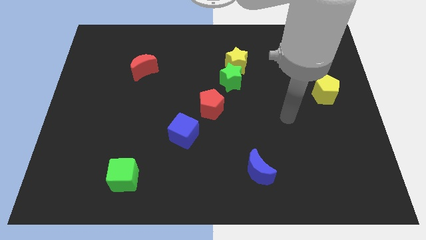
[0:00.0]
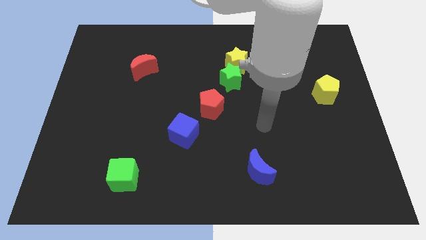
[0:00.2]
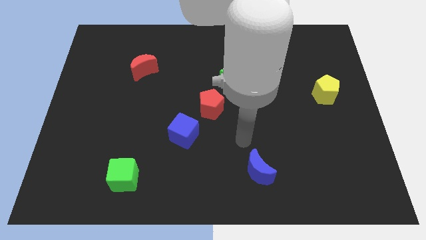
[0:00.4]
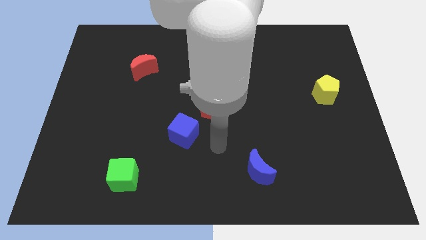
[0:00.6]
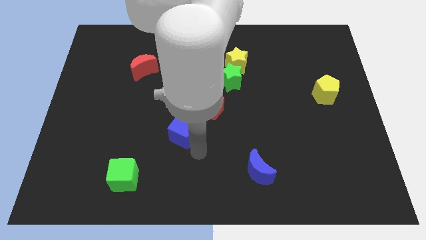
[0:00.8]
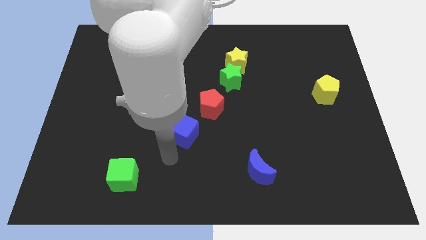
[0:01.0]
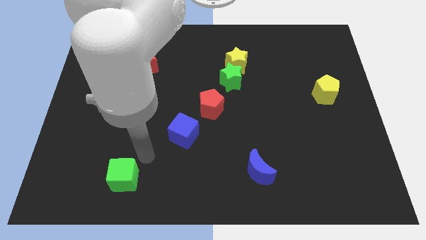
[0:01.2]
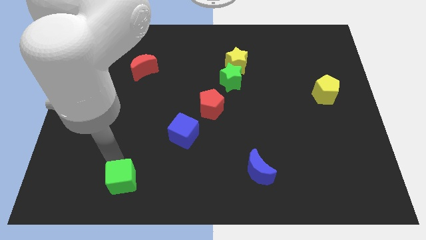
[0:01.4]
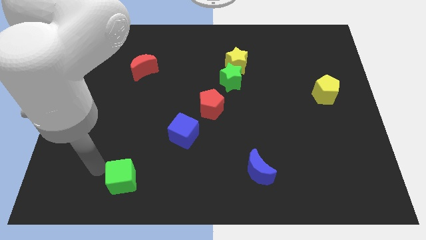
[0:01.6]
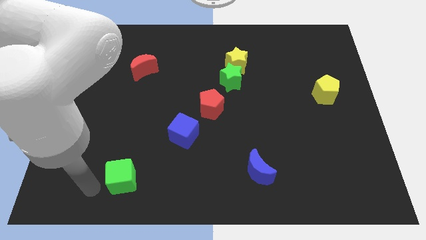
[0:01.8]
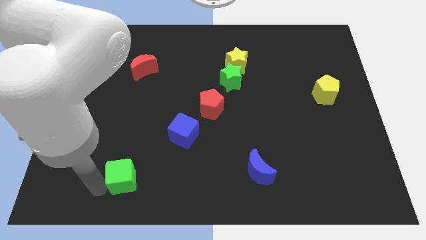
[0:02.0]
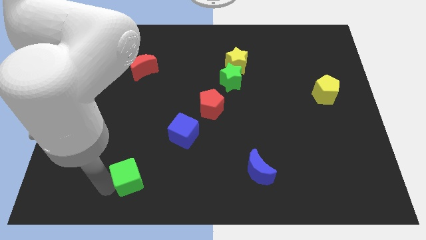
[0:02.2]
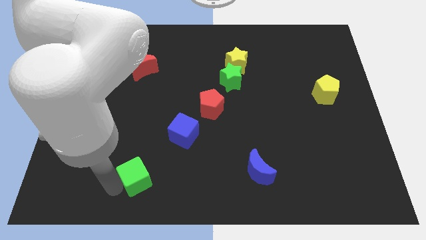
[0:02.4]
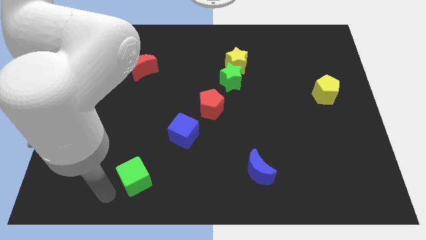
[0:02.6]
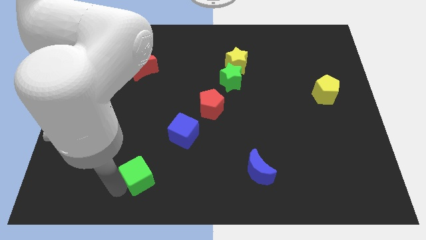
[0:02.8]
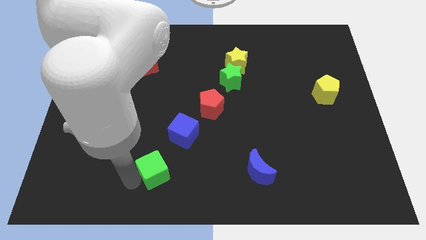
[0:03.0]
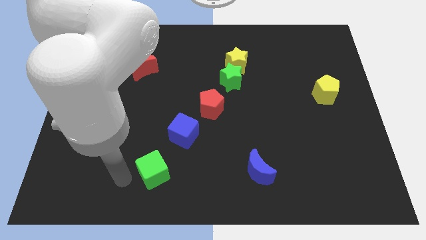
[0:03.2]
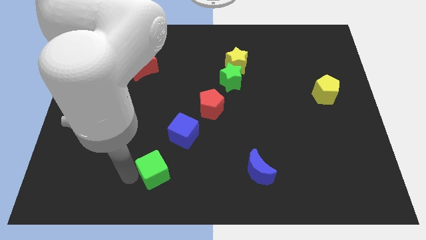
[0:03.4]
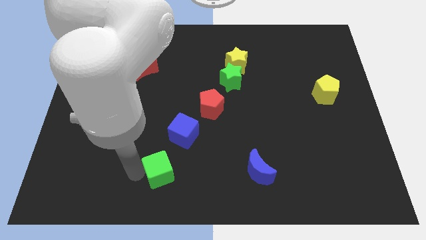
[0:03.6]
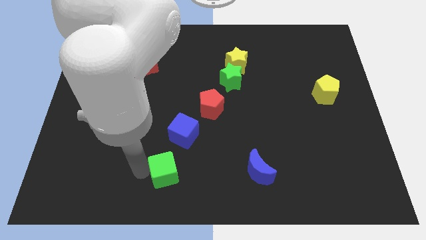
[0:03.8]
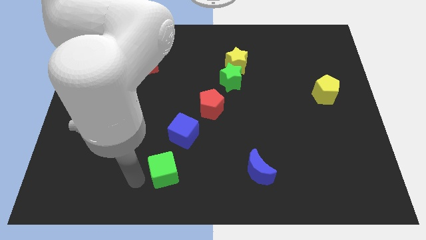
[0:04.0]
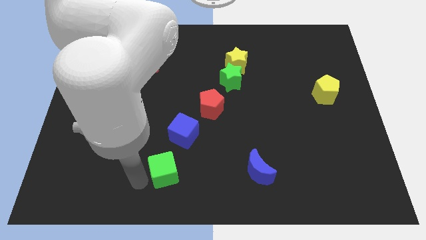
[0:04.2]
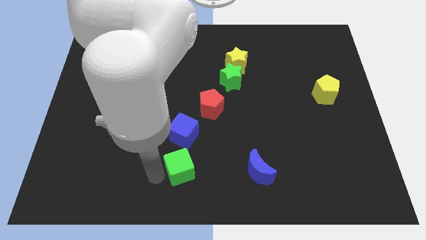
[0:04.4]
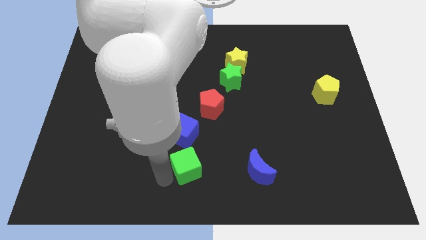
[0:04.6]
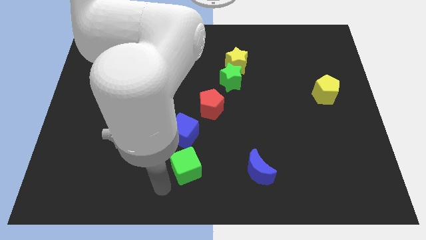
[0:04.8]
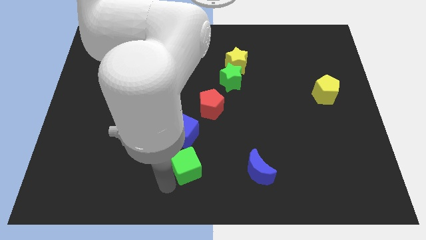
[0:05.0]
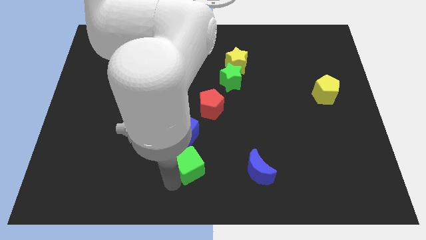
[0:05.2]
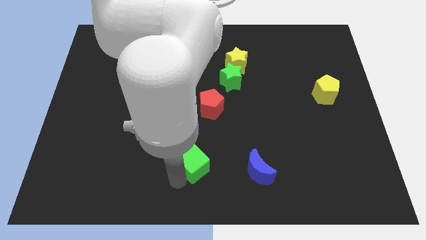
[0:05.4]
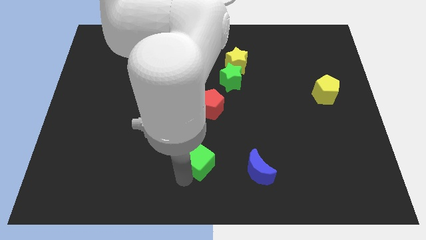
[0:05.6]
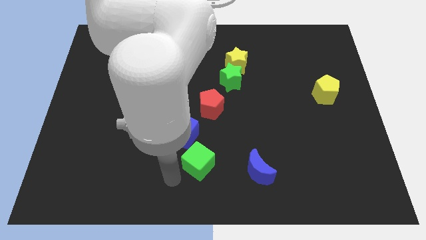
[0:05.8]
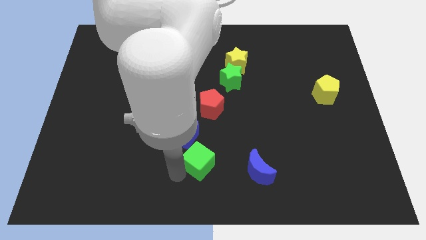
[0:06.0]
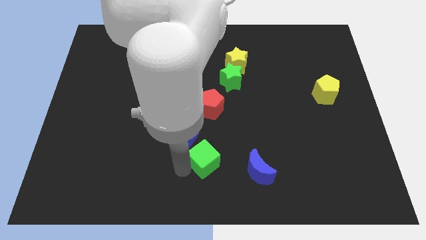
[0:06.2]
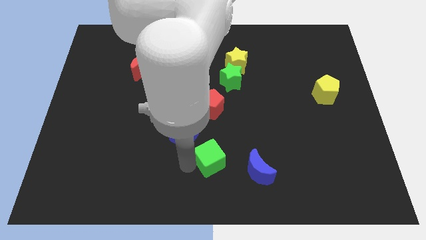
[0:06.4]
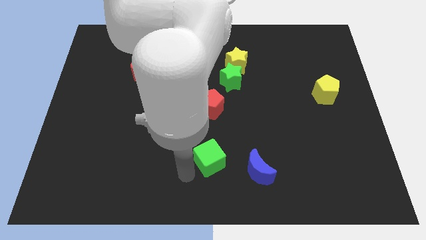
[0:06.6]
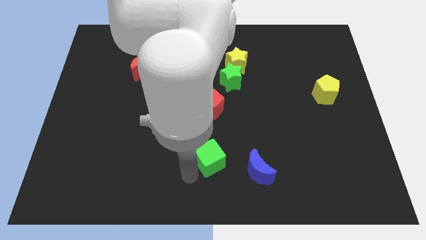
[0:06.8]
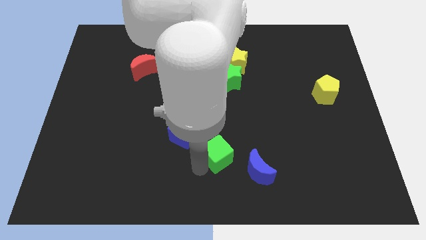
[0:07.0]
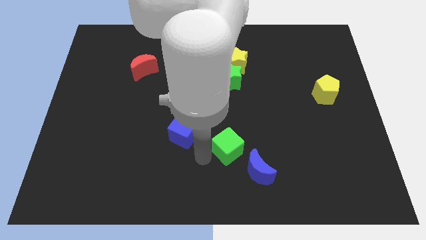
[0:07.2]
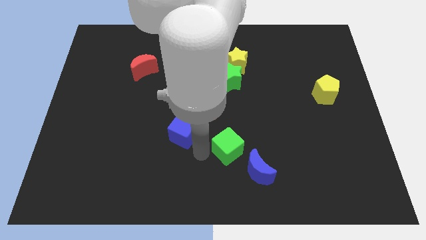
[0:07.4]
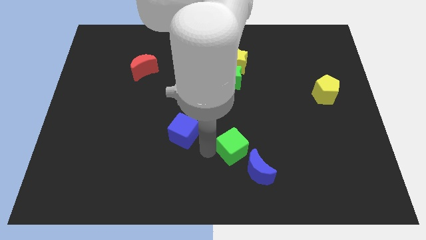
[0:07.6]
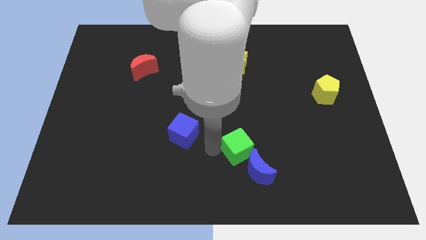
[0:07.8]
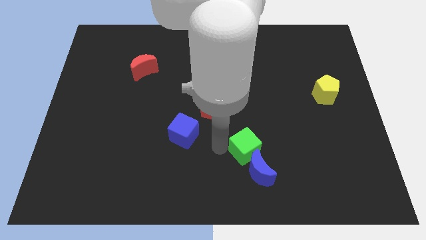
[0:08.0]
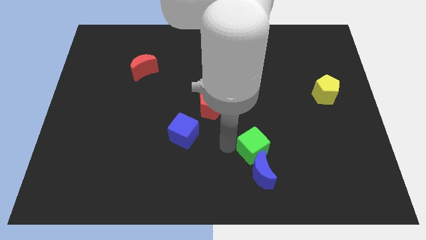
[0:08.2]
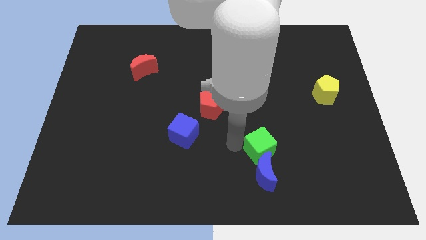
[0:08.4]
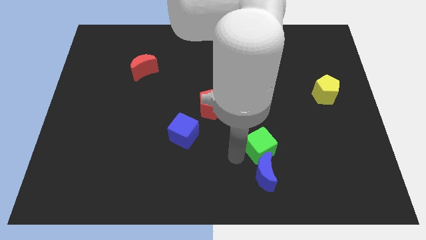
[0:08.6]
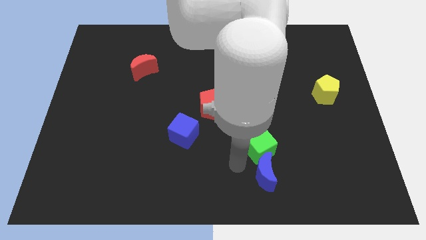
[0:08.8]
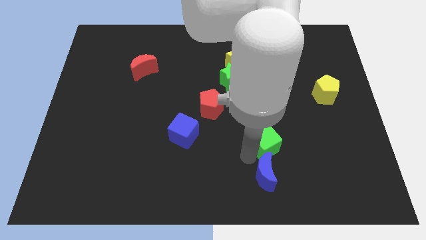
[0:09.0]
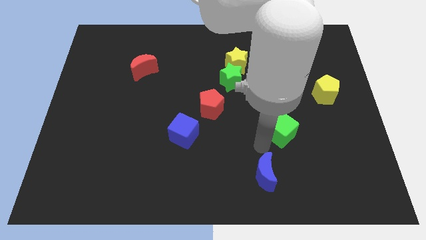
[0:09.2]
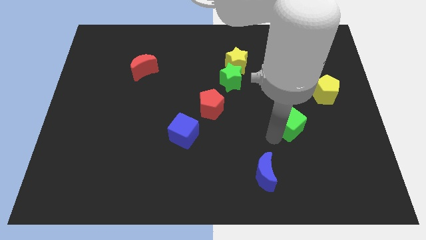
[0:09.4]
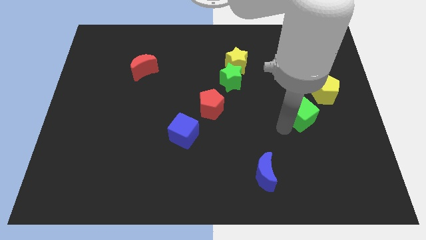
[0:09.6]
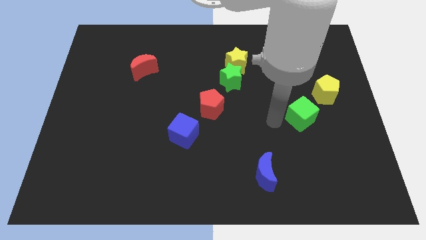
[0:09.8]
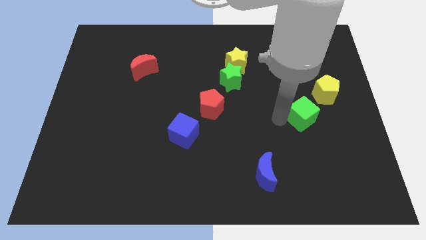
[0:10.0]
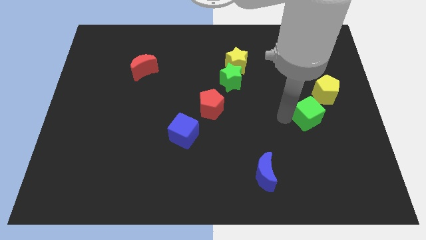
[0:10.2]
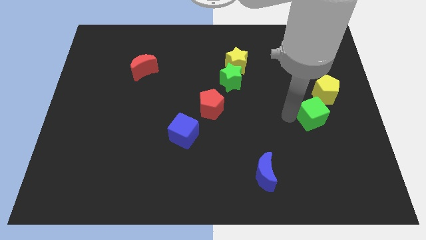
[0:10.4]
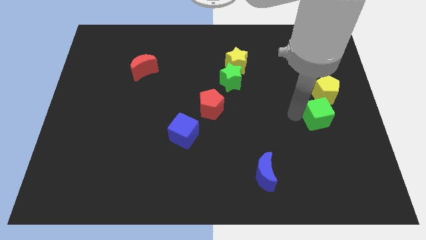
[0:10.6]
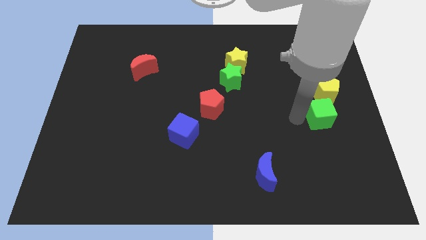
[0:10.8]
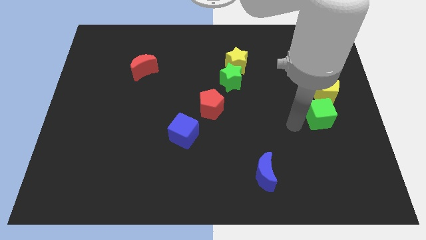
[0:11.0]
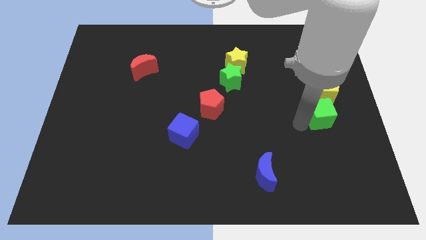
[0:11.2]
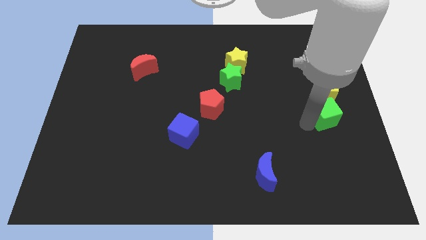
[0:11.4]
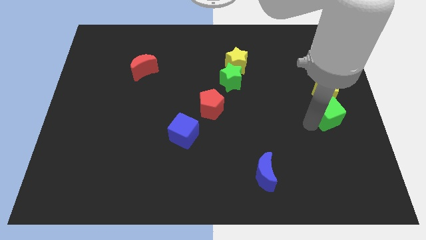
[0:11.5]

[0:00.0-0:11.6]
push the green cube to the right side of the board

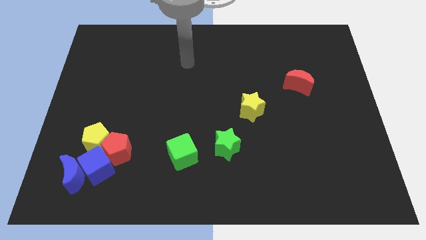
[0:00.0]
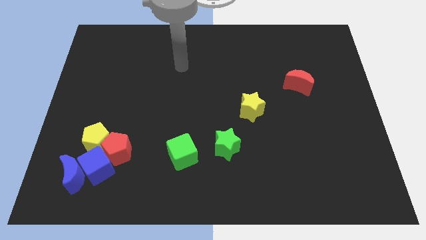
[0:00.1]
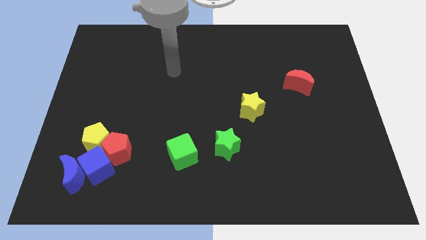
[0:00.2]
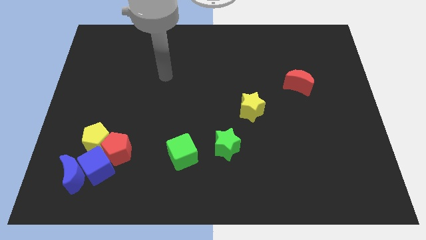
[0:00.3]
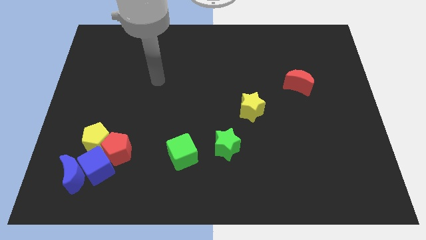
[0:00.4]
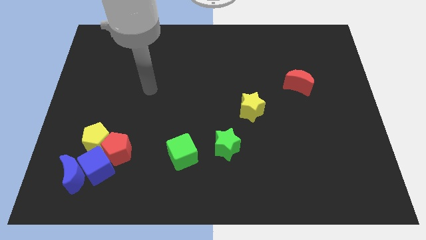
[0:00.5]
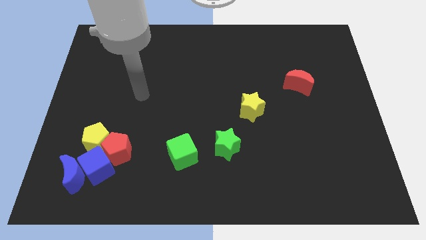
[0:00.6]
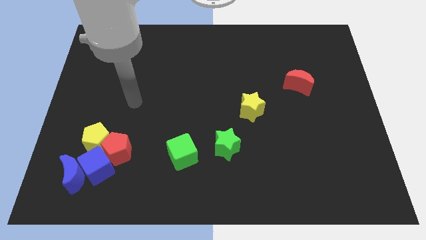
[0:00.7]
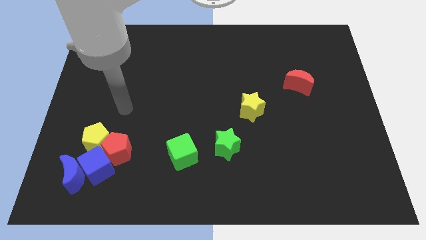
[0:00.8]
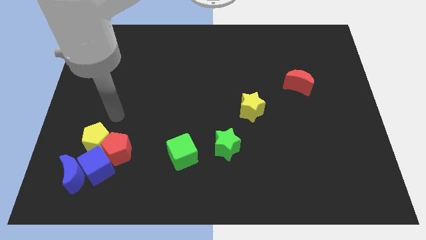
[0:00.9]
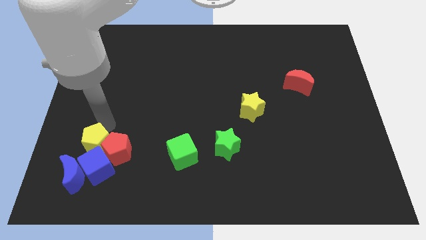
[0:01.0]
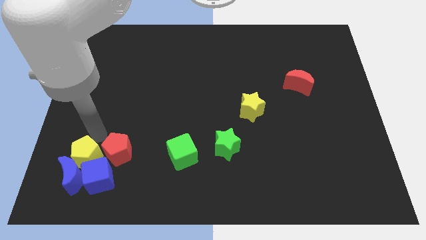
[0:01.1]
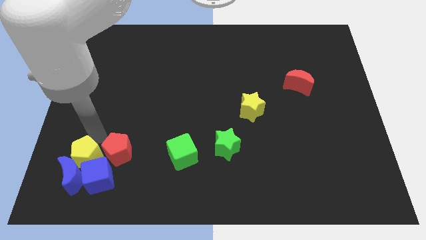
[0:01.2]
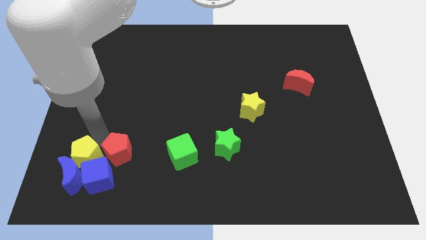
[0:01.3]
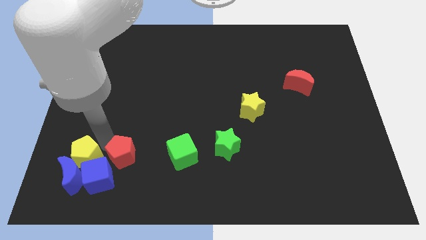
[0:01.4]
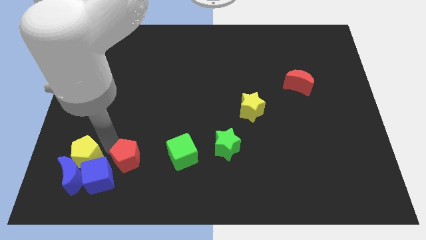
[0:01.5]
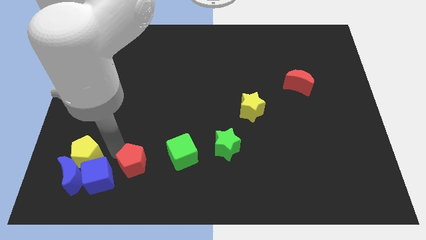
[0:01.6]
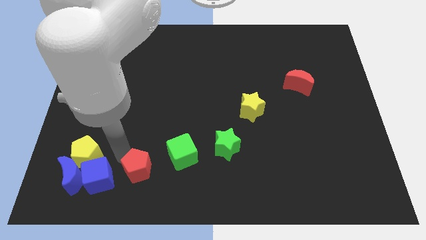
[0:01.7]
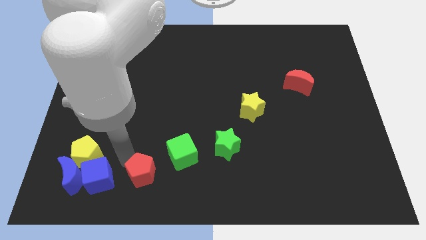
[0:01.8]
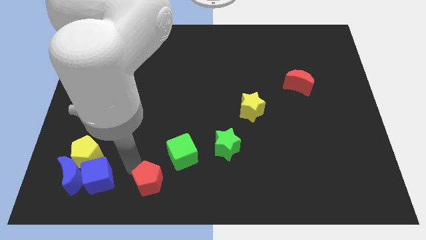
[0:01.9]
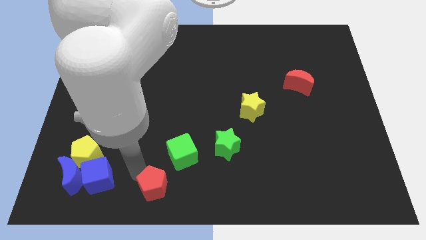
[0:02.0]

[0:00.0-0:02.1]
slide the red pentagon to the bottom side
